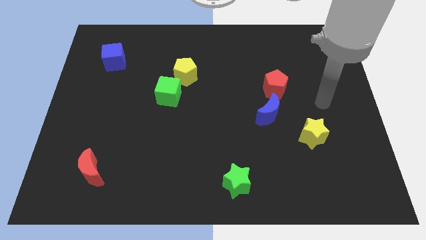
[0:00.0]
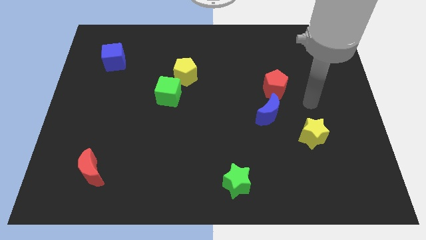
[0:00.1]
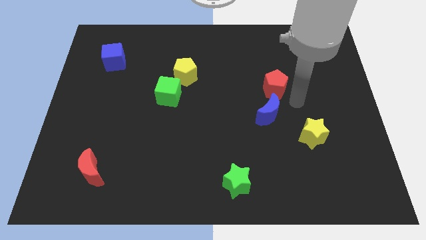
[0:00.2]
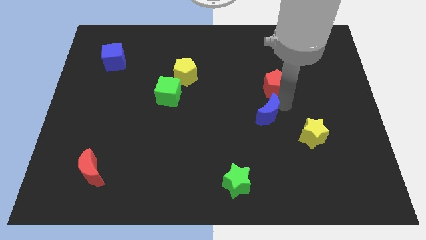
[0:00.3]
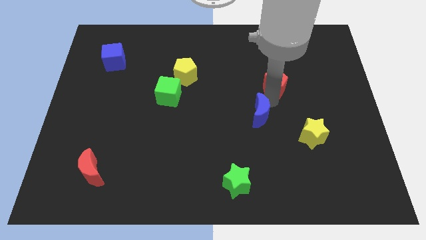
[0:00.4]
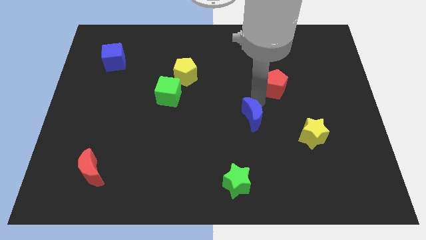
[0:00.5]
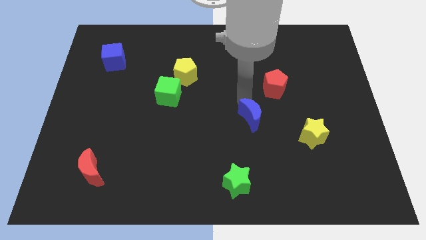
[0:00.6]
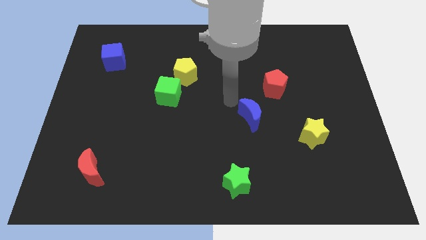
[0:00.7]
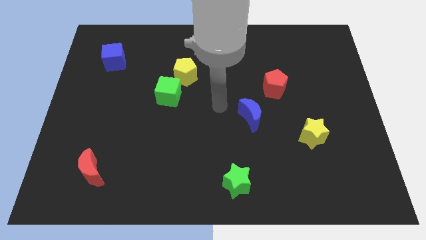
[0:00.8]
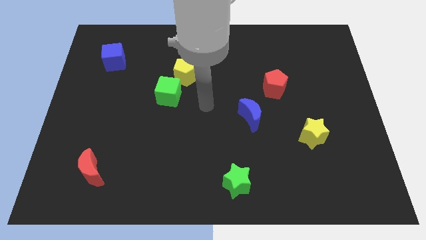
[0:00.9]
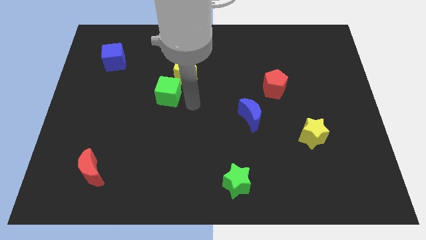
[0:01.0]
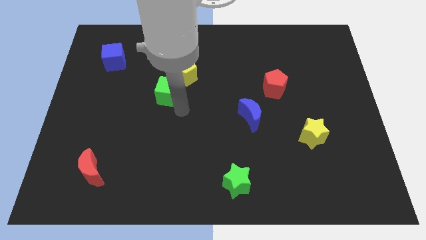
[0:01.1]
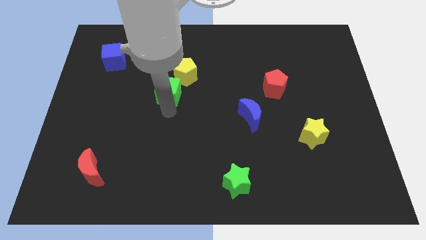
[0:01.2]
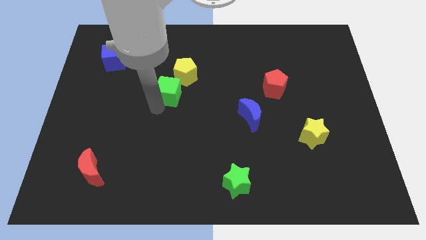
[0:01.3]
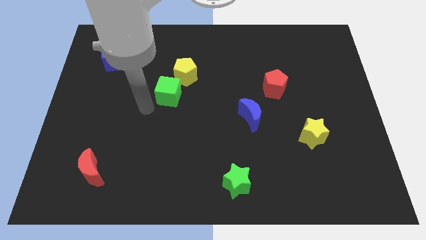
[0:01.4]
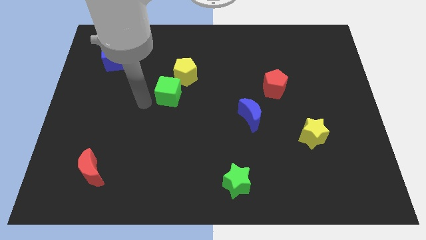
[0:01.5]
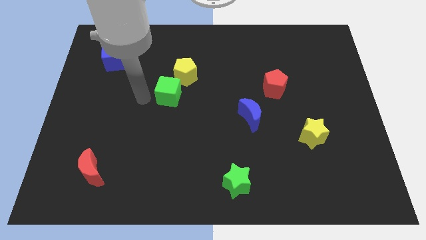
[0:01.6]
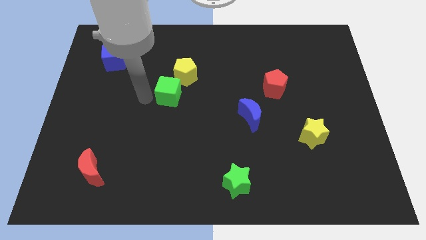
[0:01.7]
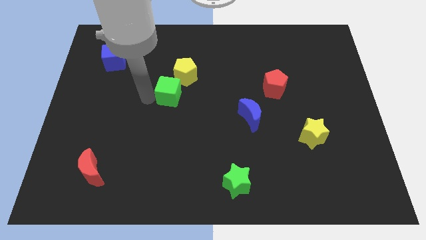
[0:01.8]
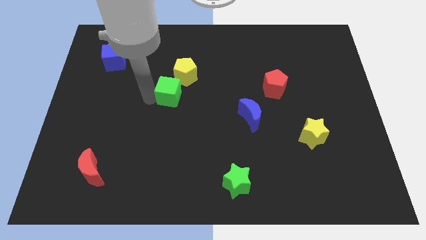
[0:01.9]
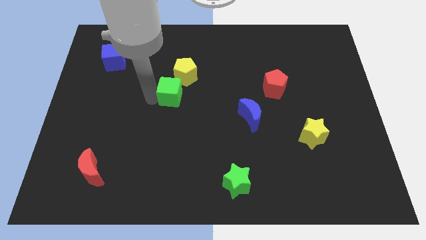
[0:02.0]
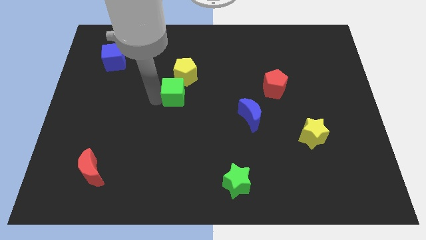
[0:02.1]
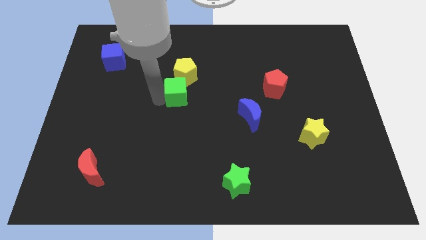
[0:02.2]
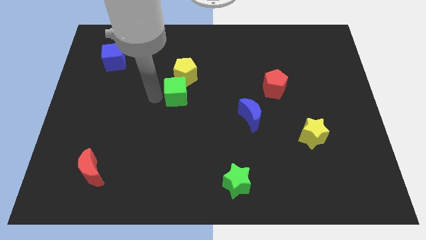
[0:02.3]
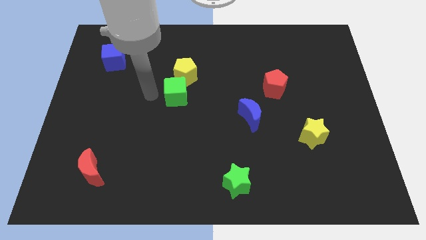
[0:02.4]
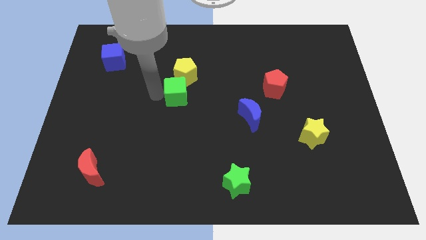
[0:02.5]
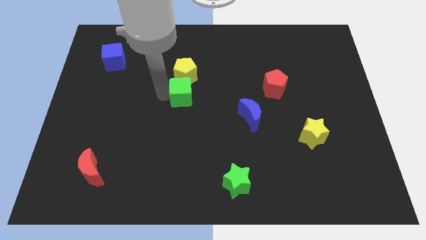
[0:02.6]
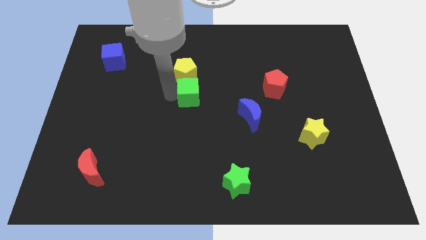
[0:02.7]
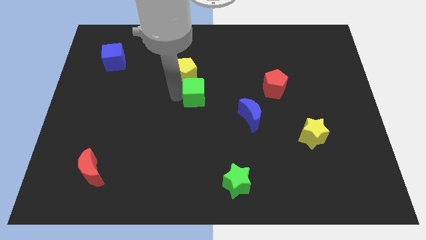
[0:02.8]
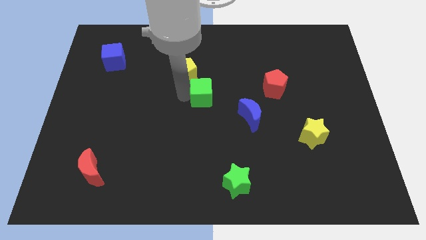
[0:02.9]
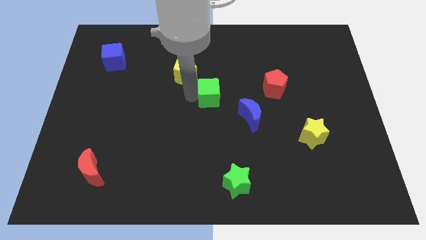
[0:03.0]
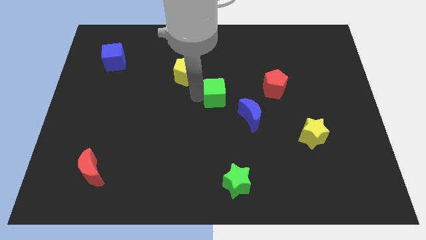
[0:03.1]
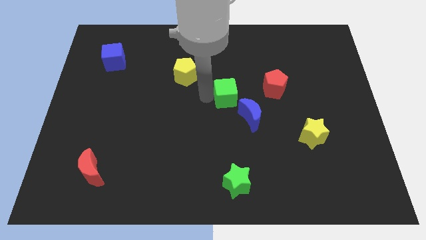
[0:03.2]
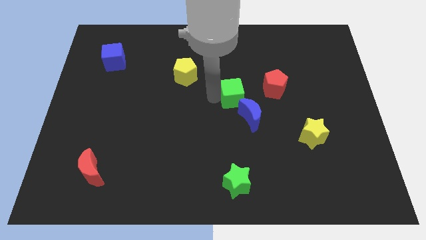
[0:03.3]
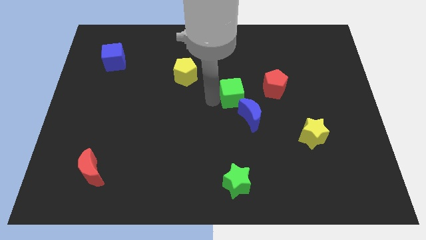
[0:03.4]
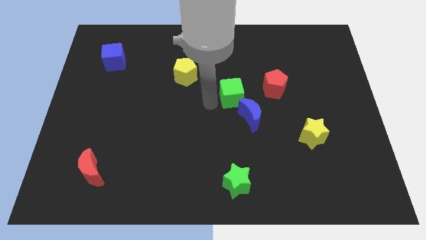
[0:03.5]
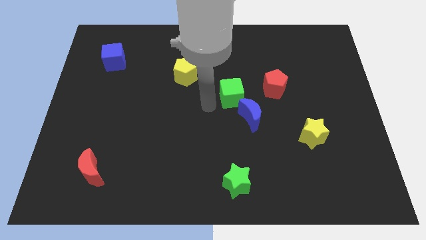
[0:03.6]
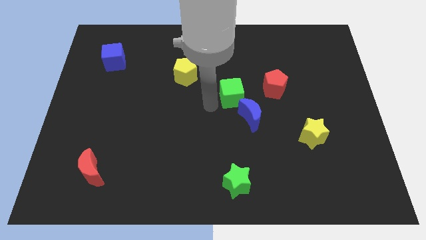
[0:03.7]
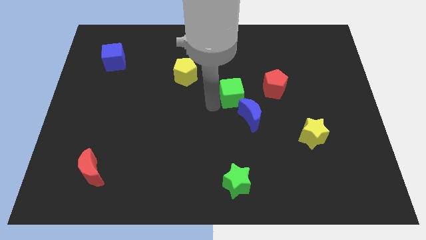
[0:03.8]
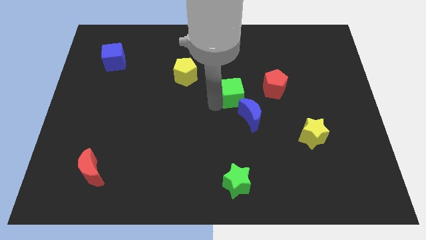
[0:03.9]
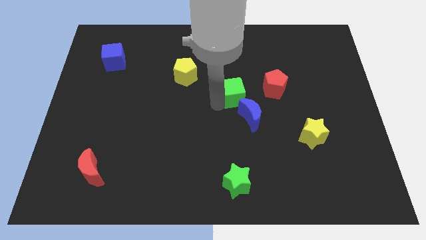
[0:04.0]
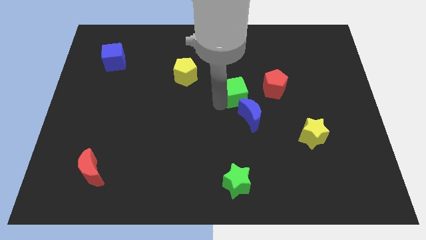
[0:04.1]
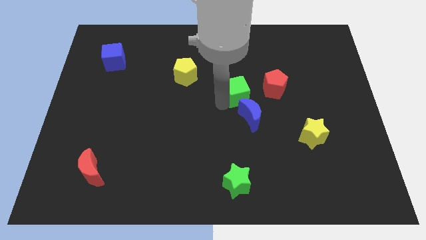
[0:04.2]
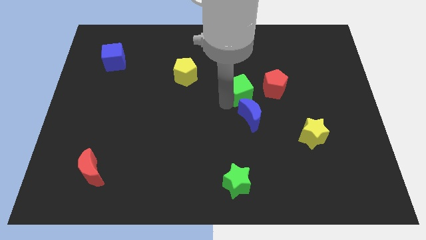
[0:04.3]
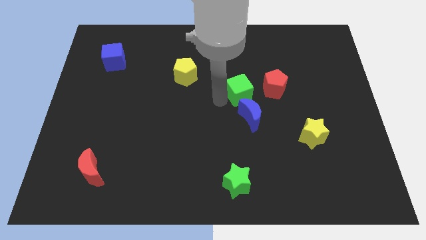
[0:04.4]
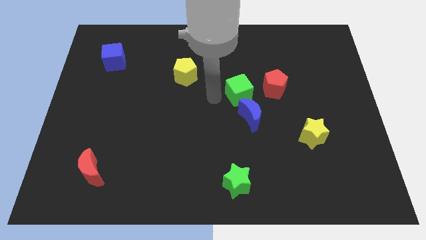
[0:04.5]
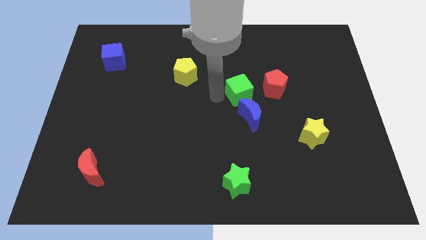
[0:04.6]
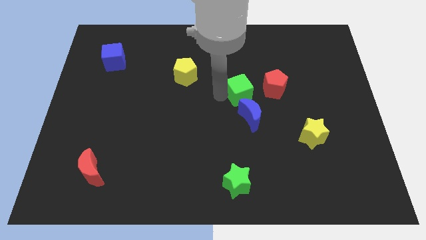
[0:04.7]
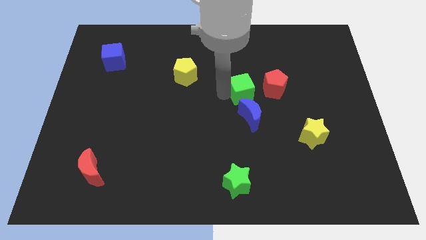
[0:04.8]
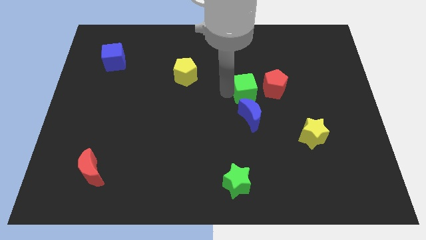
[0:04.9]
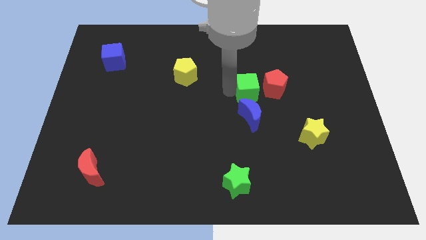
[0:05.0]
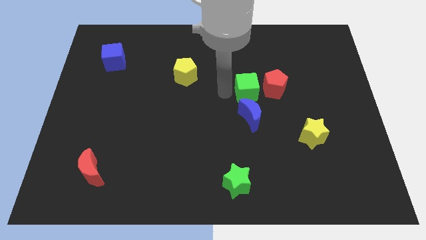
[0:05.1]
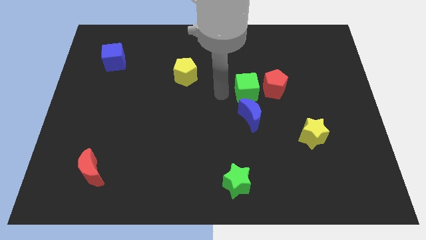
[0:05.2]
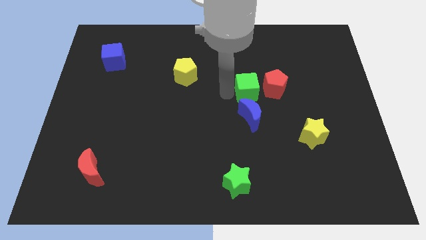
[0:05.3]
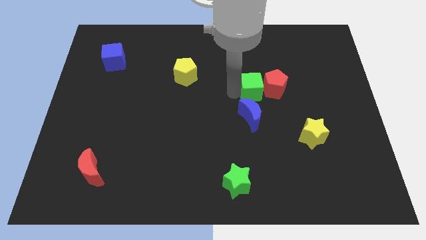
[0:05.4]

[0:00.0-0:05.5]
slide the green cube to the red pentagon

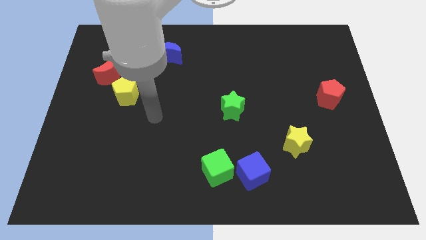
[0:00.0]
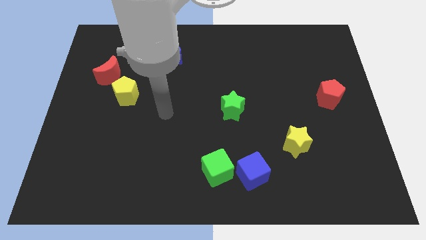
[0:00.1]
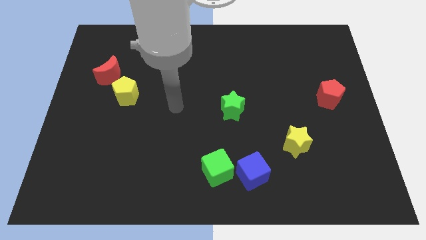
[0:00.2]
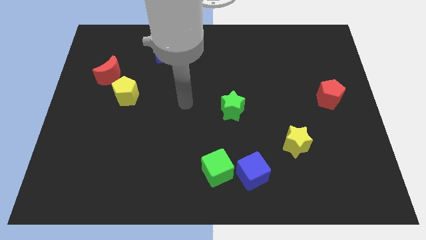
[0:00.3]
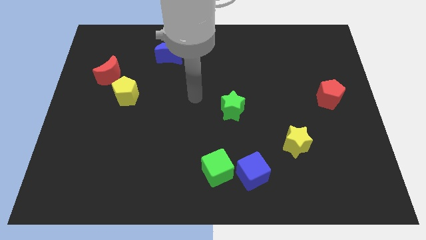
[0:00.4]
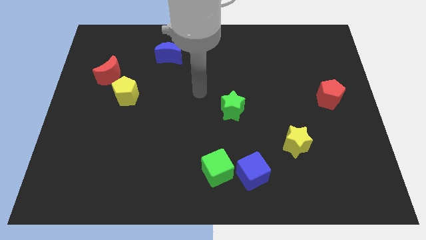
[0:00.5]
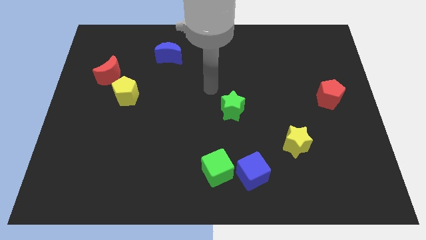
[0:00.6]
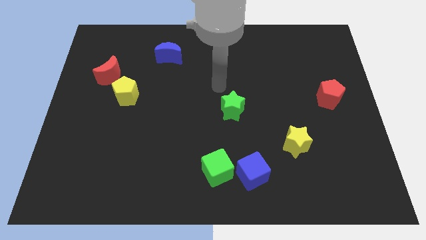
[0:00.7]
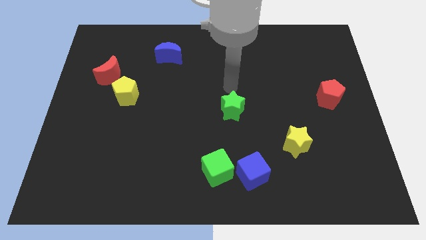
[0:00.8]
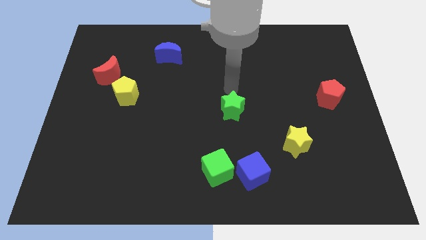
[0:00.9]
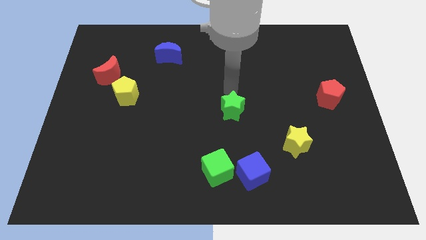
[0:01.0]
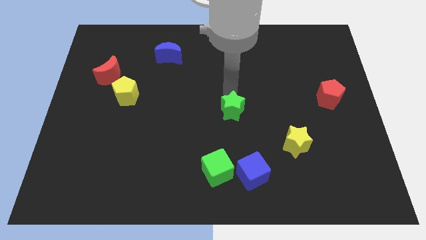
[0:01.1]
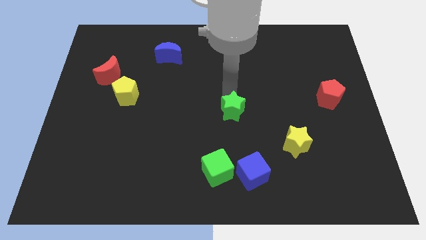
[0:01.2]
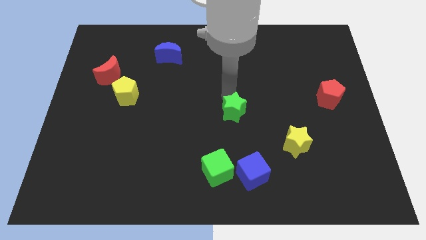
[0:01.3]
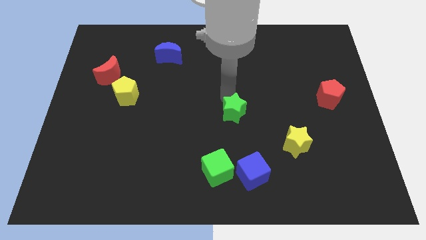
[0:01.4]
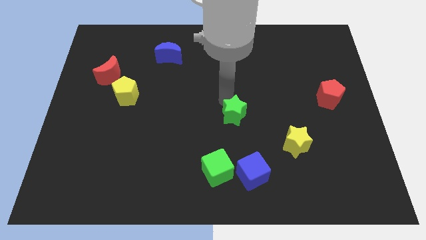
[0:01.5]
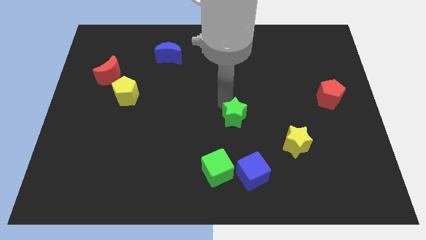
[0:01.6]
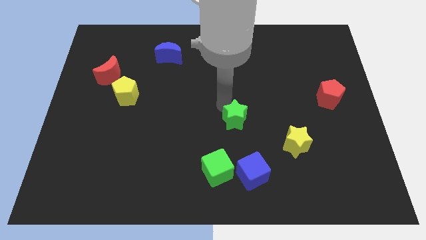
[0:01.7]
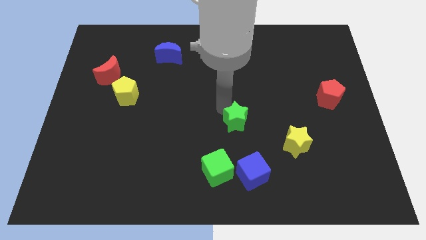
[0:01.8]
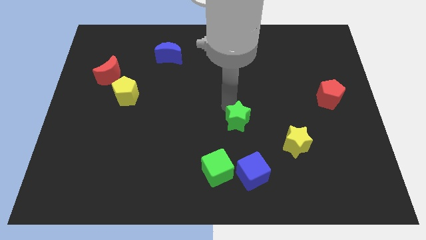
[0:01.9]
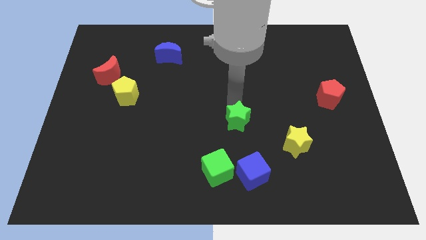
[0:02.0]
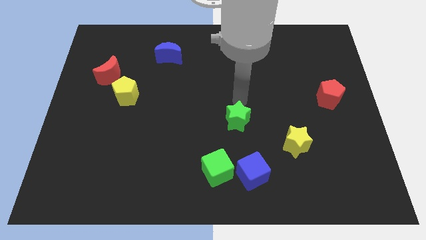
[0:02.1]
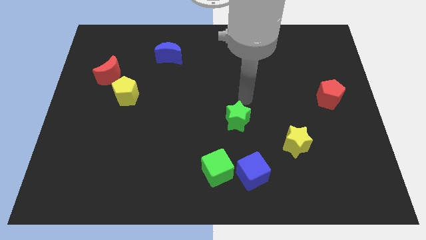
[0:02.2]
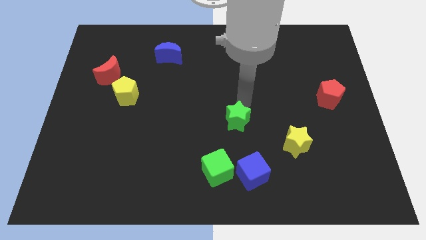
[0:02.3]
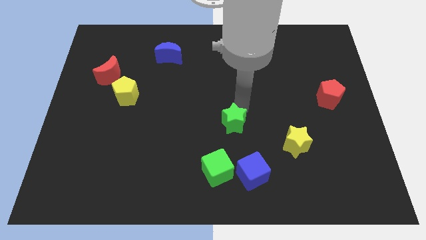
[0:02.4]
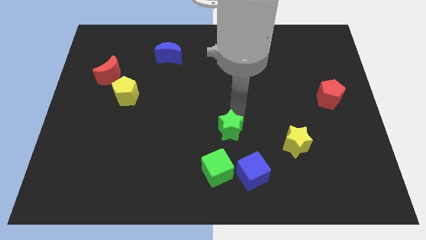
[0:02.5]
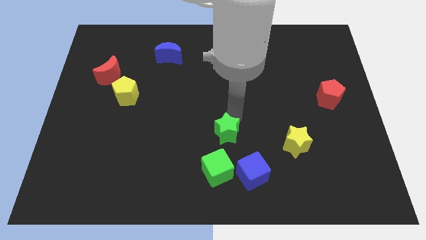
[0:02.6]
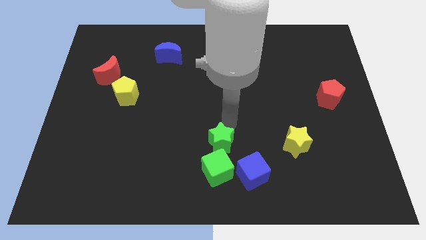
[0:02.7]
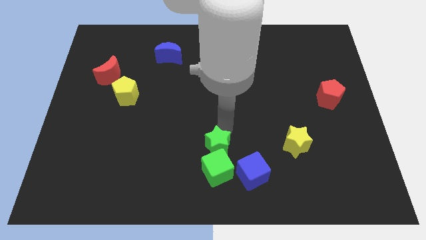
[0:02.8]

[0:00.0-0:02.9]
slide the green star to the green cube
